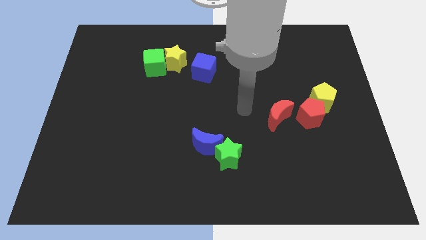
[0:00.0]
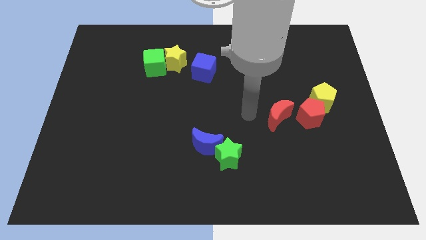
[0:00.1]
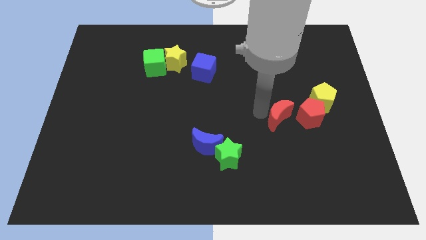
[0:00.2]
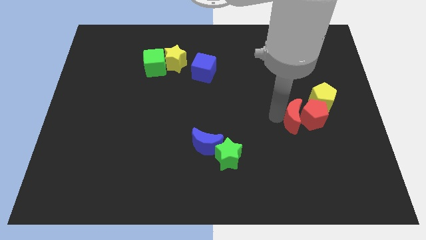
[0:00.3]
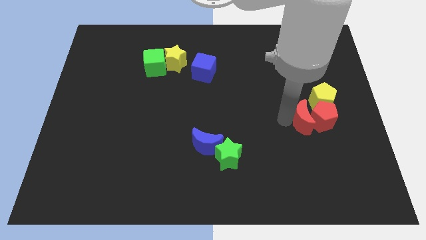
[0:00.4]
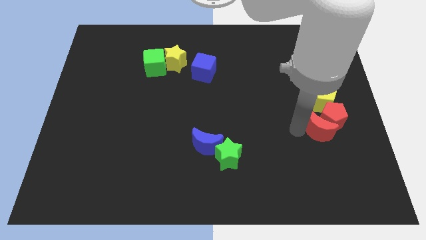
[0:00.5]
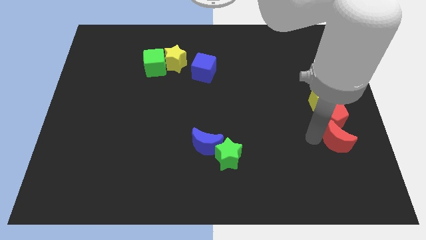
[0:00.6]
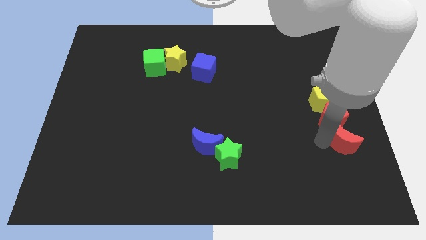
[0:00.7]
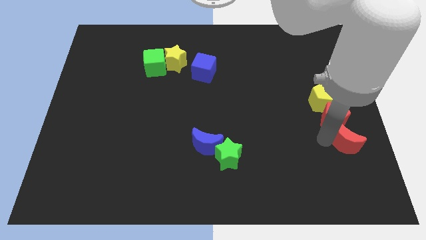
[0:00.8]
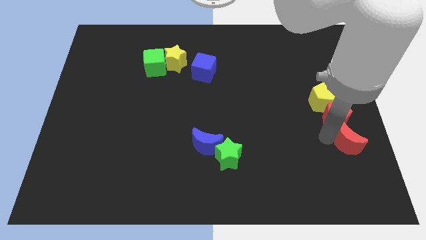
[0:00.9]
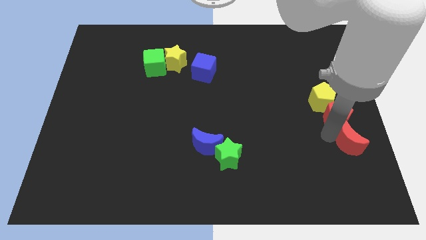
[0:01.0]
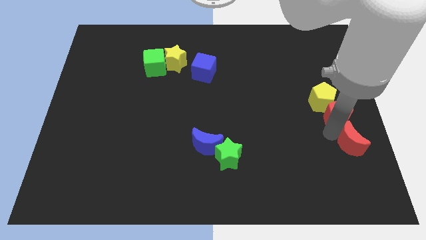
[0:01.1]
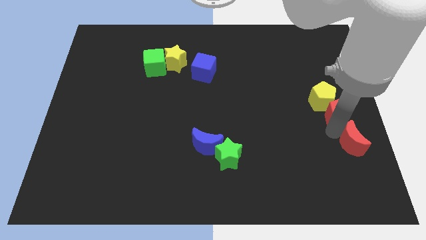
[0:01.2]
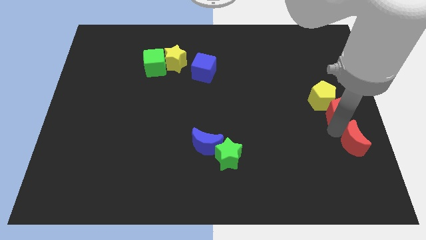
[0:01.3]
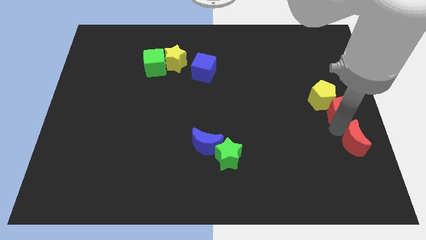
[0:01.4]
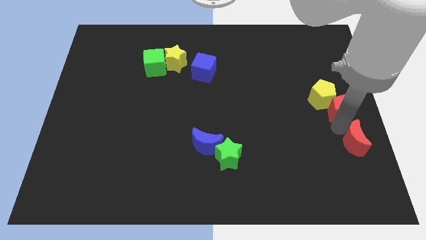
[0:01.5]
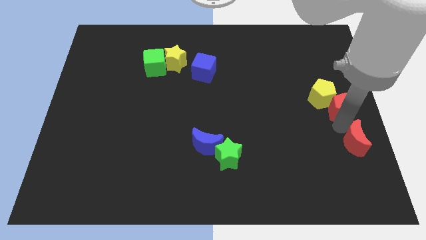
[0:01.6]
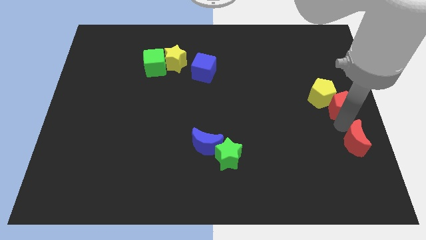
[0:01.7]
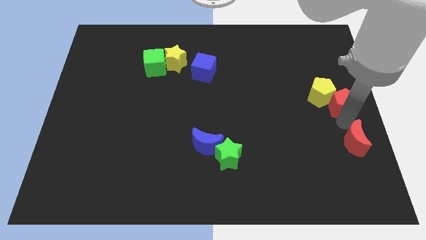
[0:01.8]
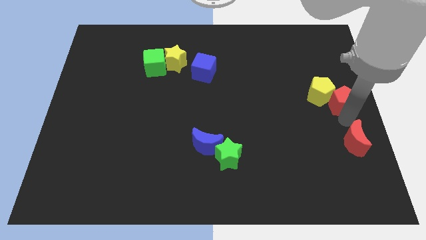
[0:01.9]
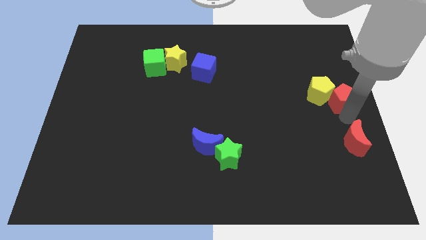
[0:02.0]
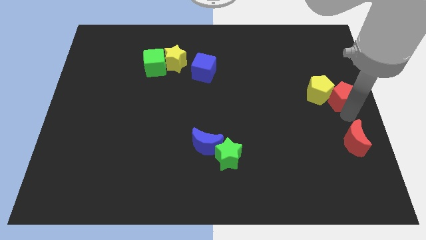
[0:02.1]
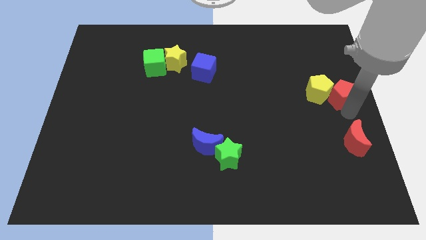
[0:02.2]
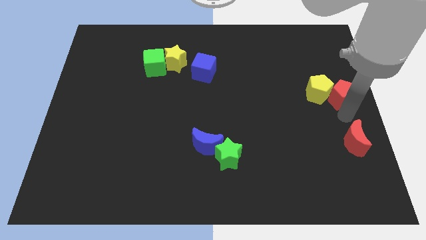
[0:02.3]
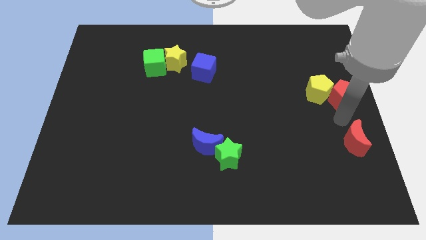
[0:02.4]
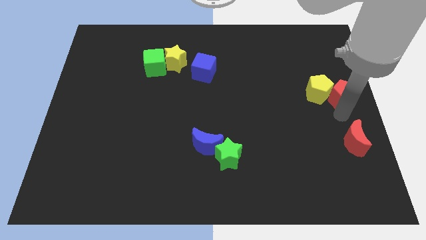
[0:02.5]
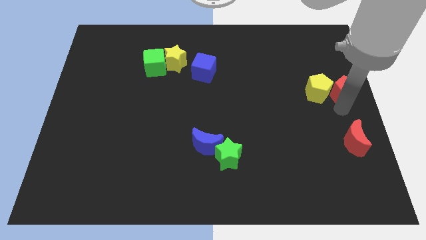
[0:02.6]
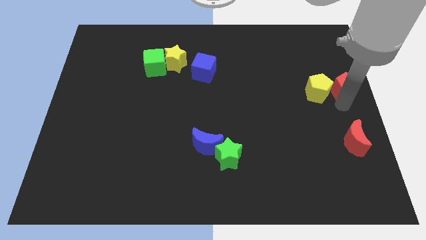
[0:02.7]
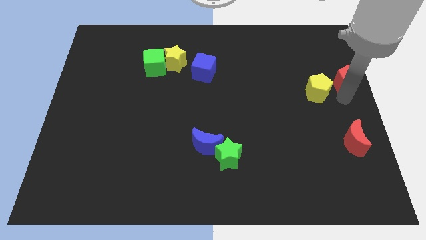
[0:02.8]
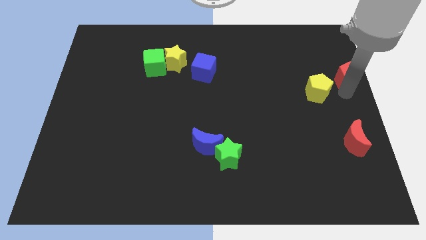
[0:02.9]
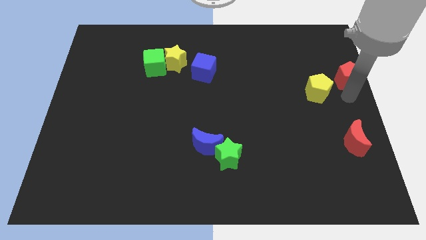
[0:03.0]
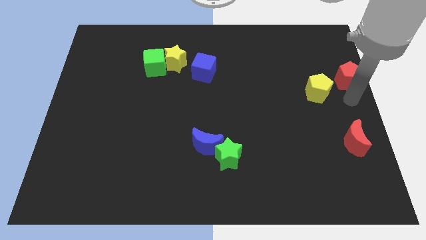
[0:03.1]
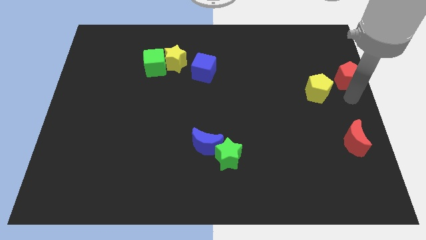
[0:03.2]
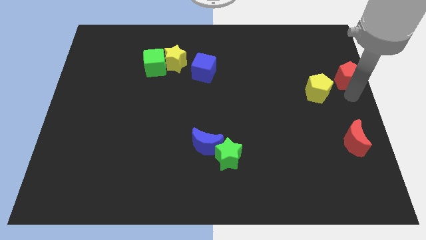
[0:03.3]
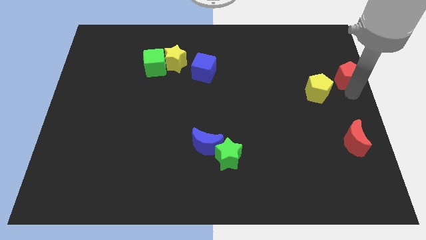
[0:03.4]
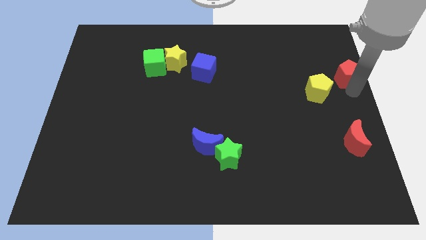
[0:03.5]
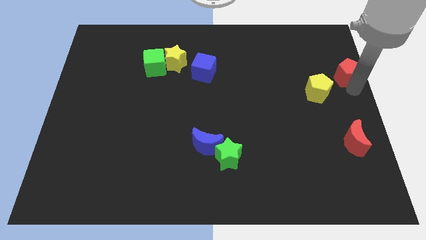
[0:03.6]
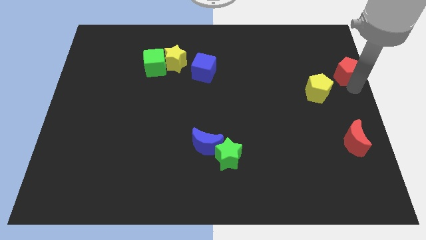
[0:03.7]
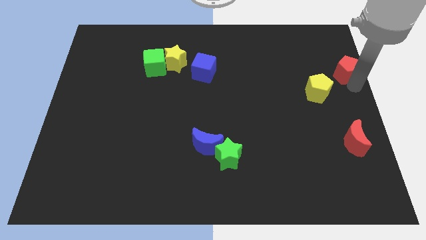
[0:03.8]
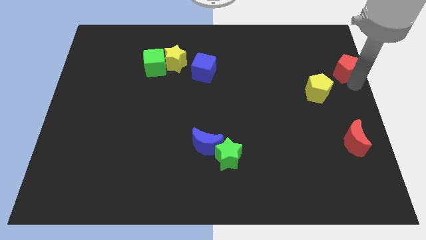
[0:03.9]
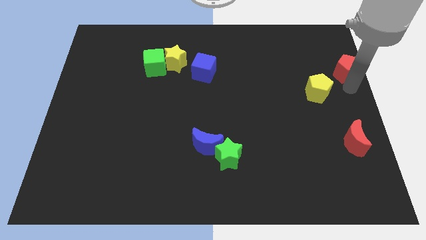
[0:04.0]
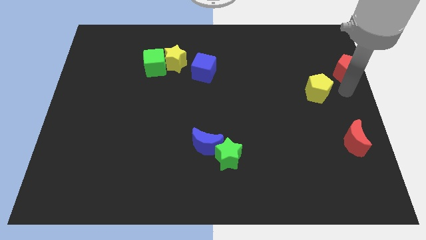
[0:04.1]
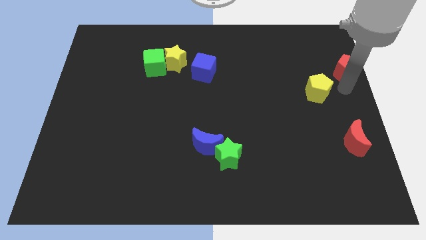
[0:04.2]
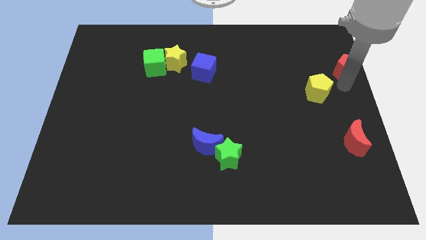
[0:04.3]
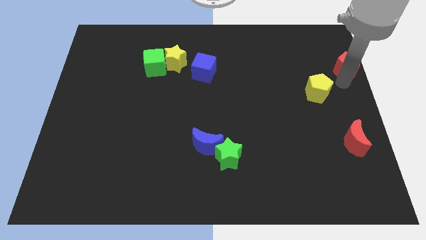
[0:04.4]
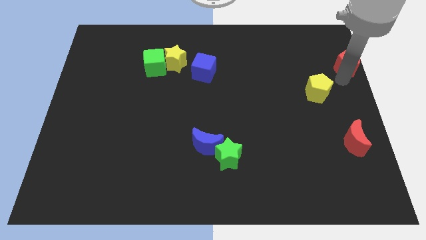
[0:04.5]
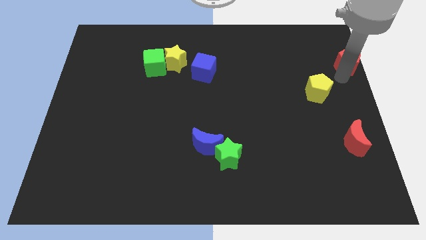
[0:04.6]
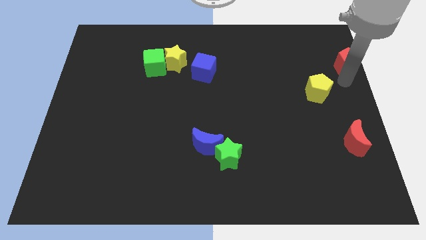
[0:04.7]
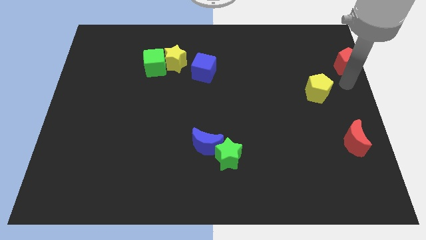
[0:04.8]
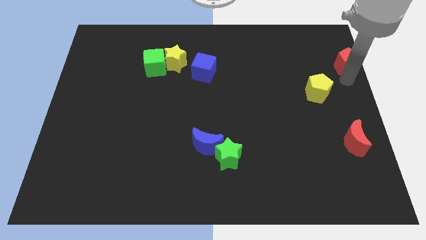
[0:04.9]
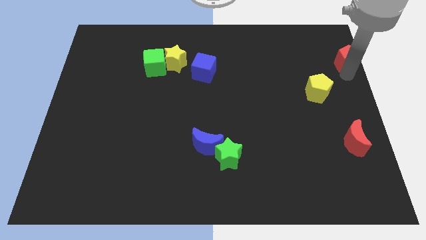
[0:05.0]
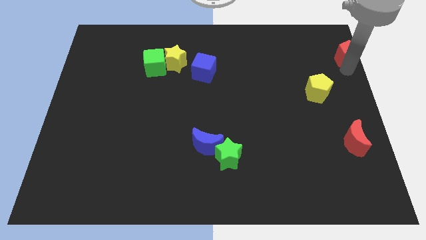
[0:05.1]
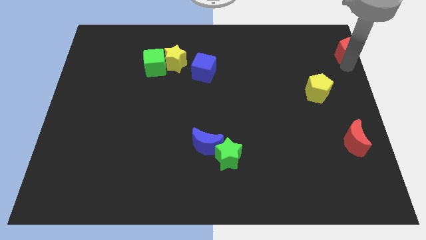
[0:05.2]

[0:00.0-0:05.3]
put the red pentagon to the top right
